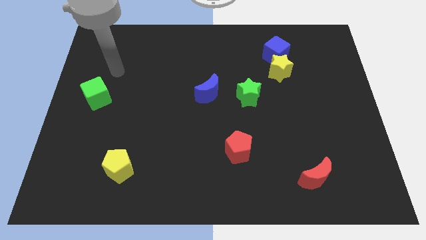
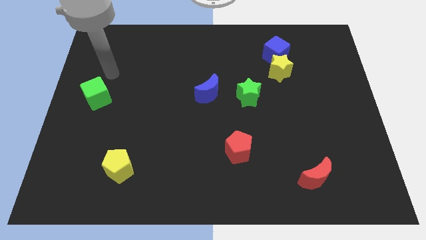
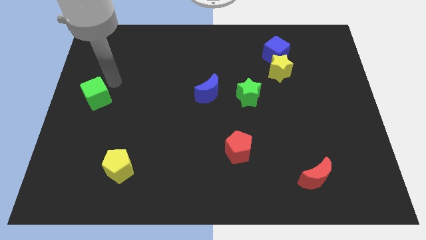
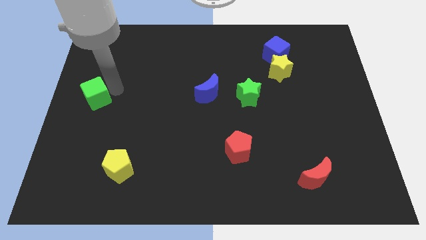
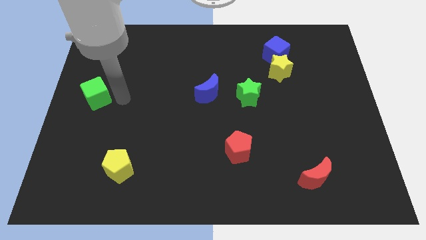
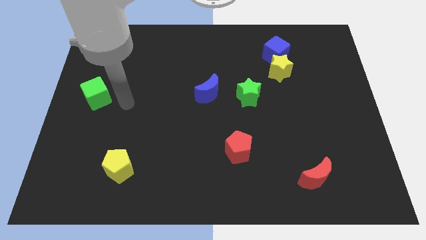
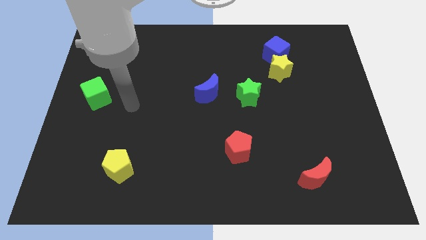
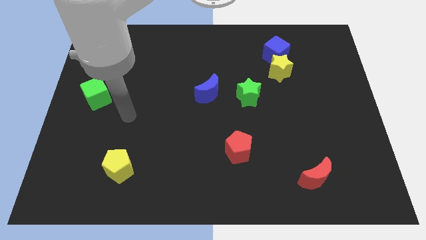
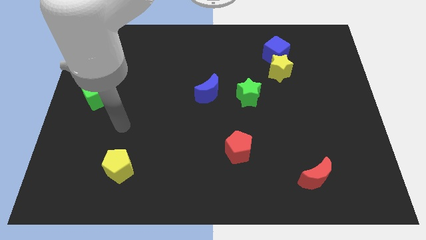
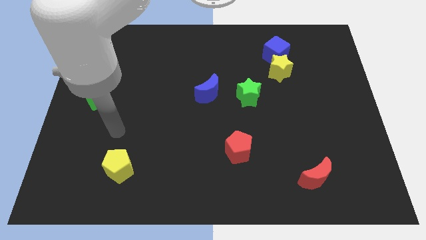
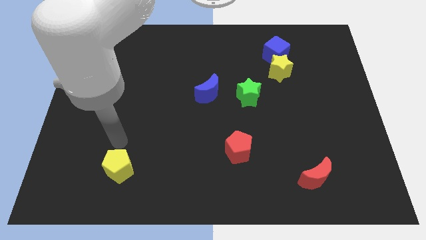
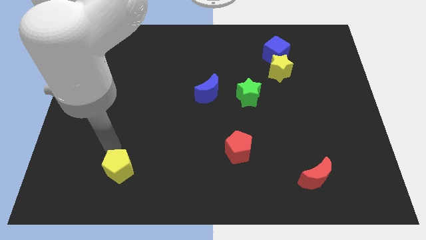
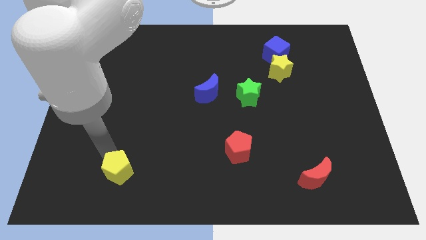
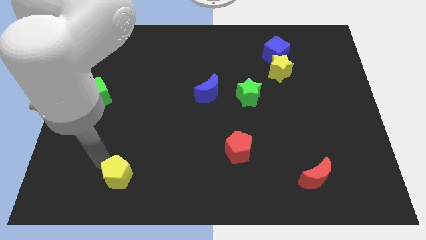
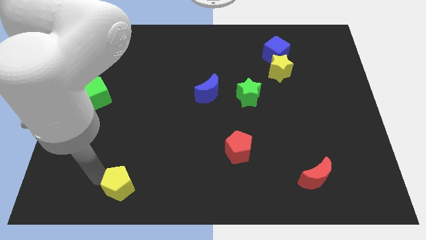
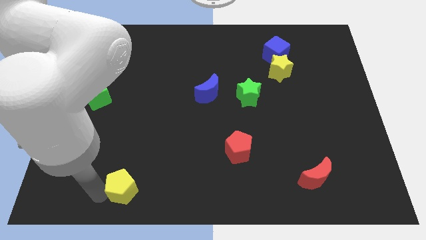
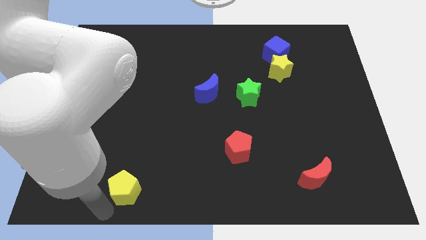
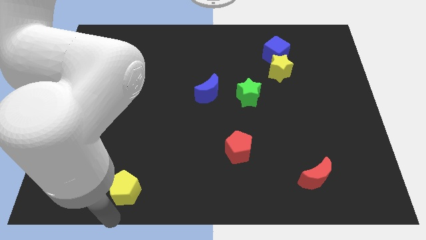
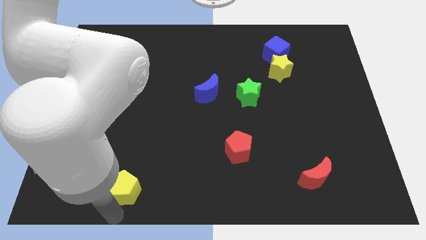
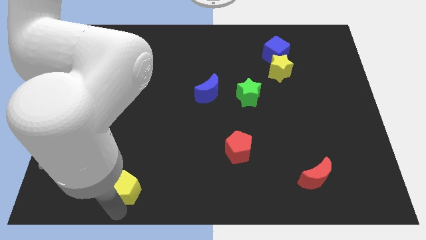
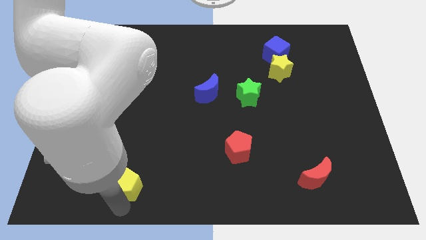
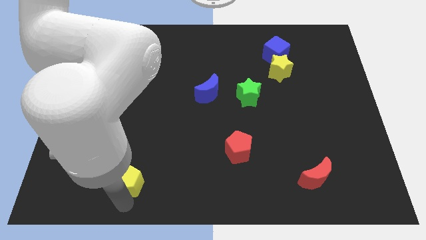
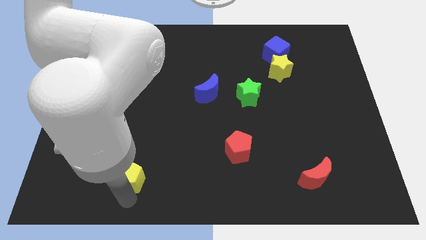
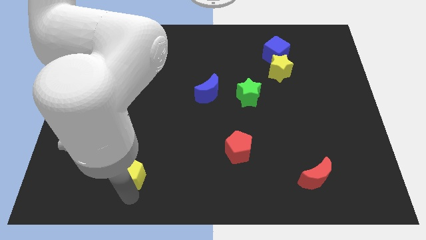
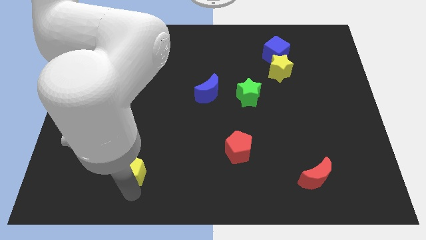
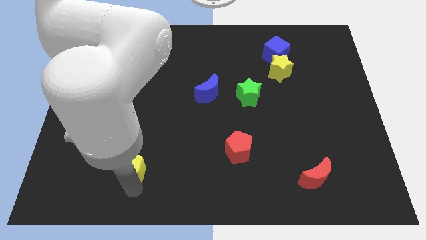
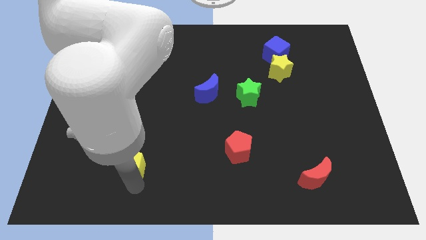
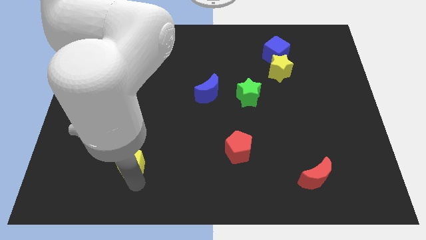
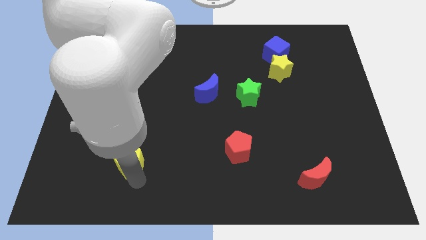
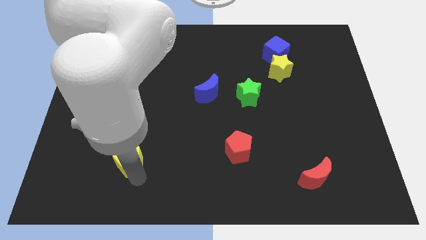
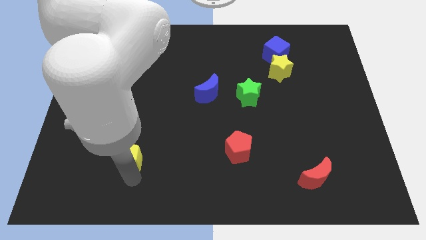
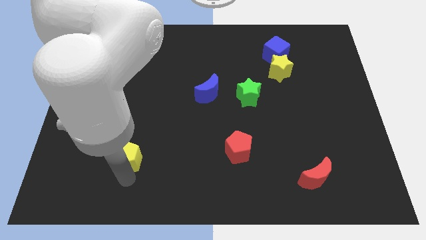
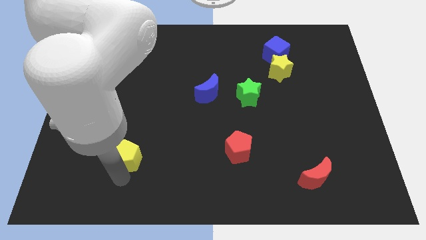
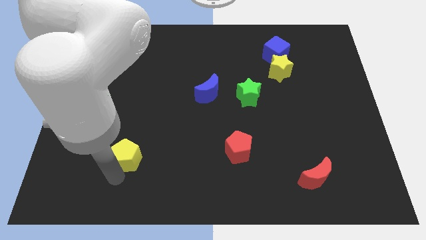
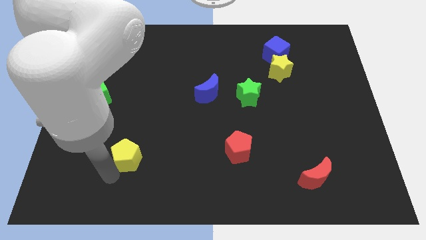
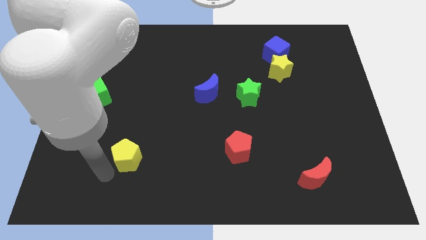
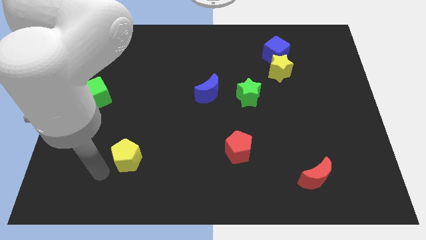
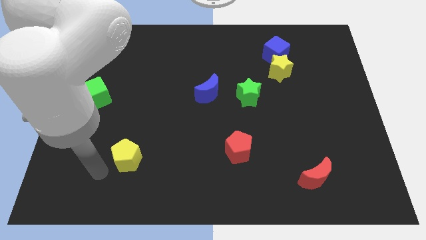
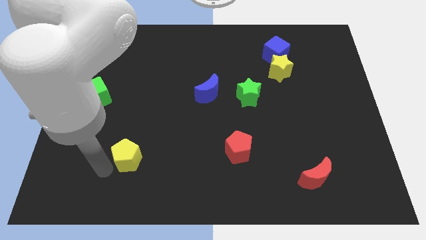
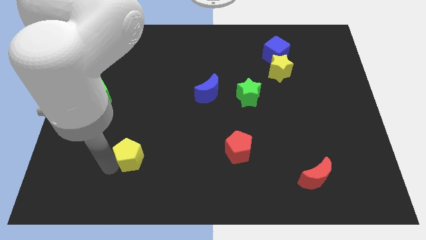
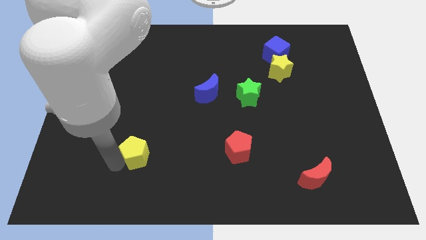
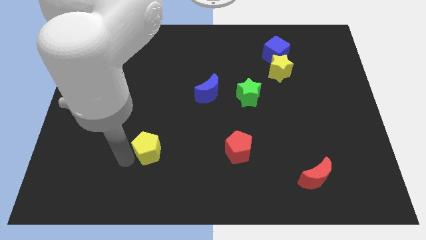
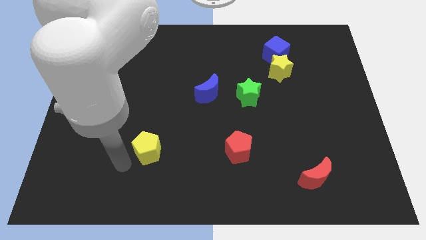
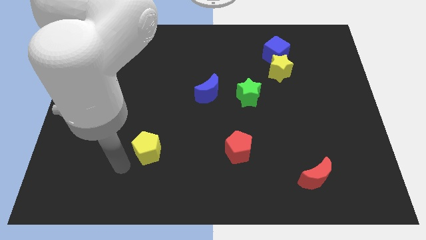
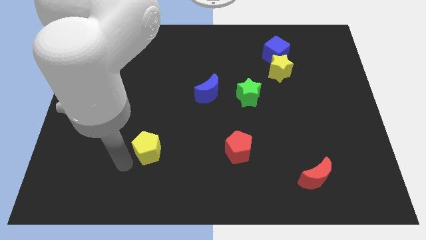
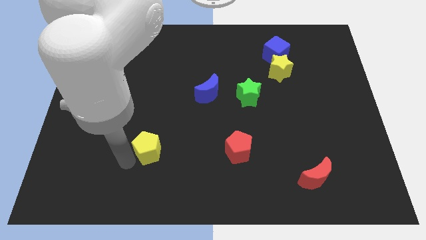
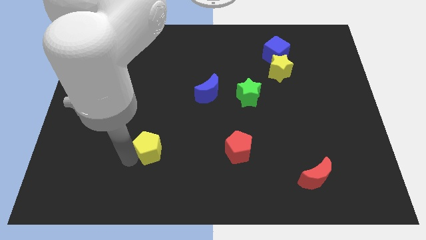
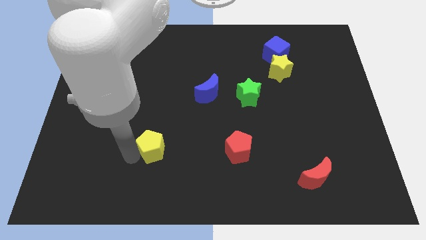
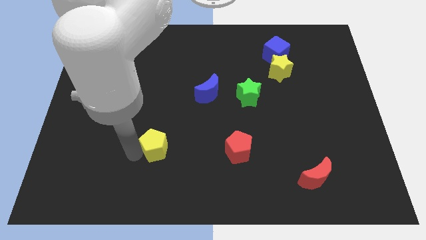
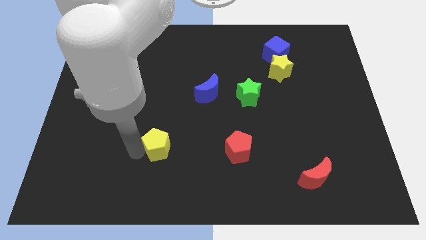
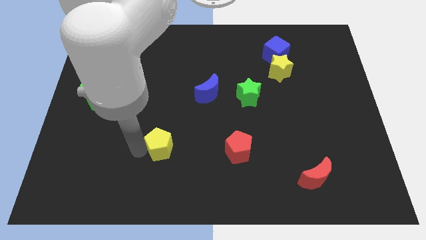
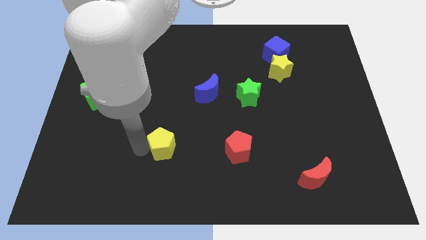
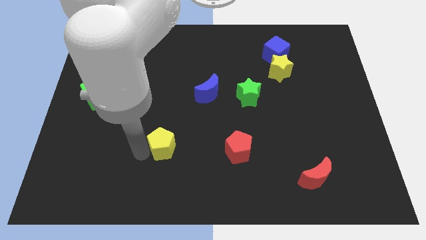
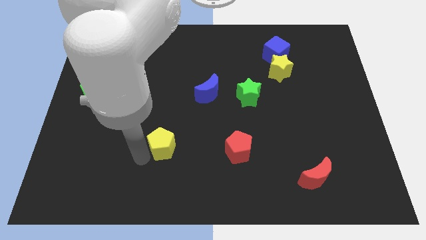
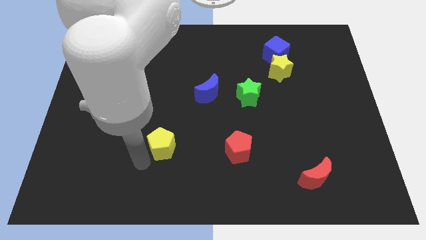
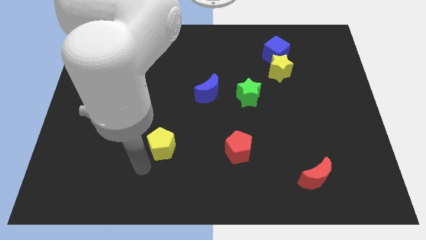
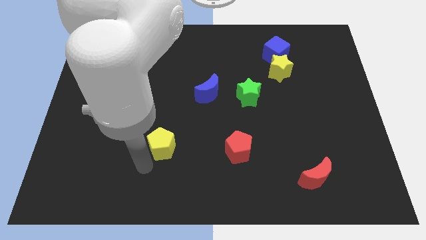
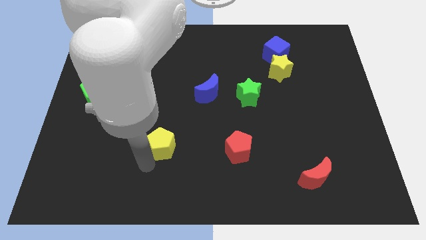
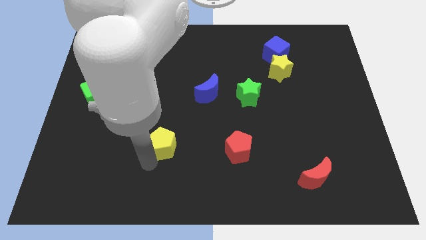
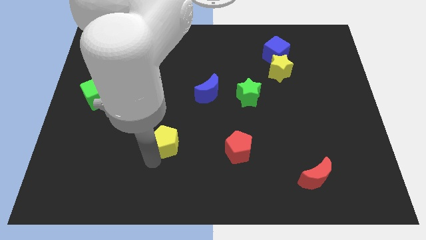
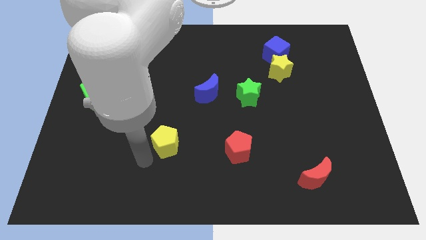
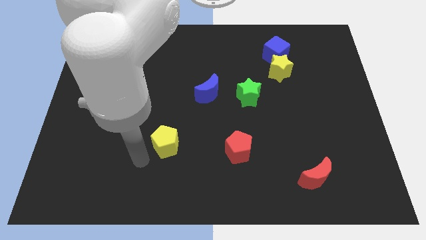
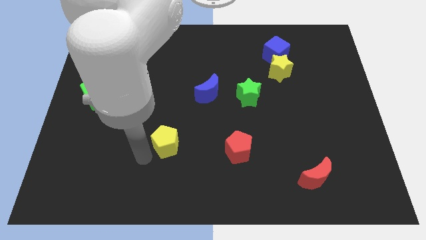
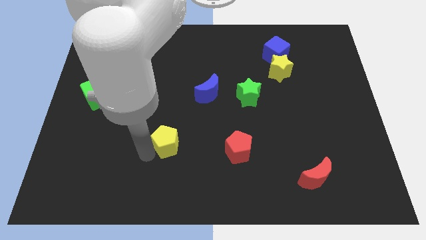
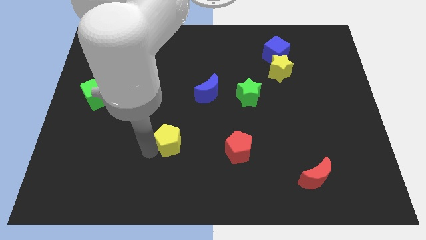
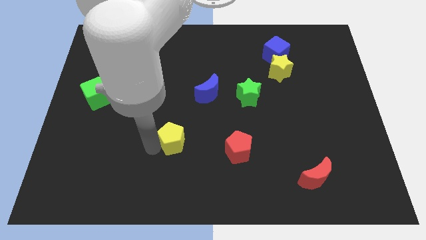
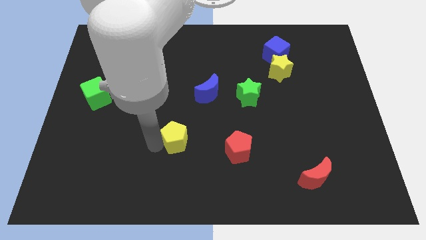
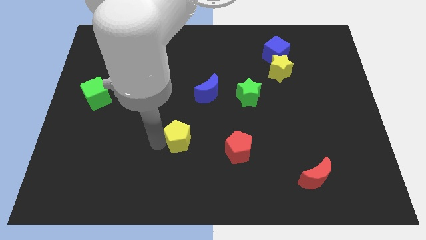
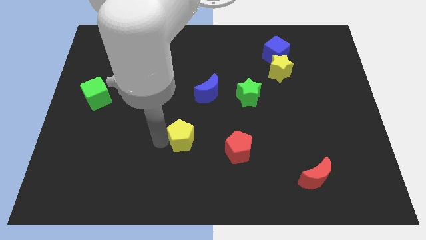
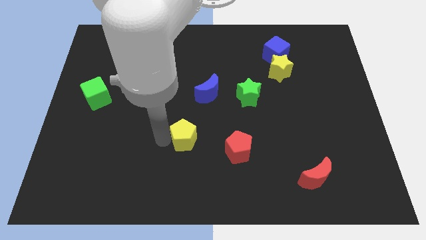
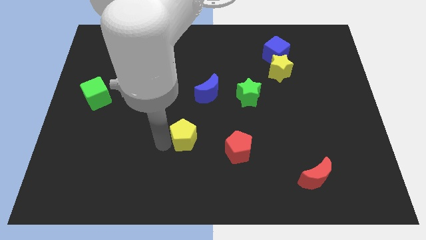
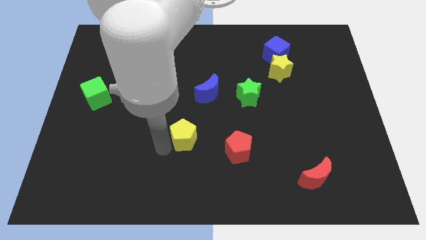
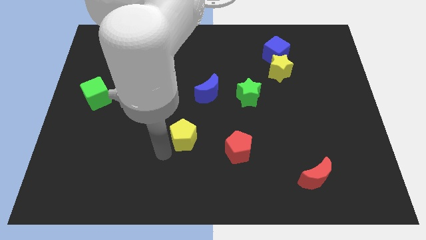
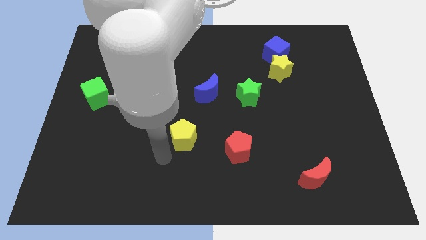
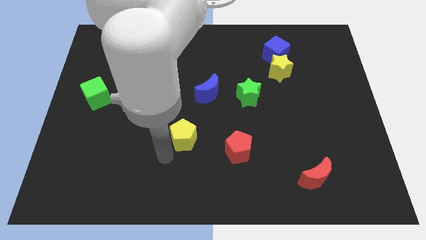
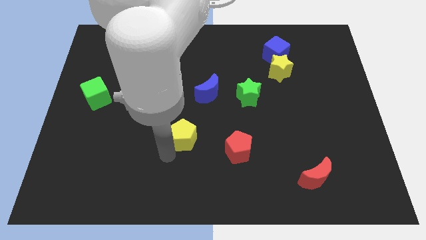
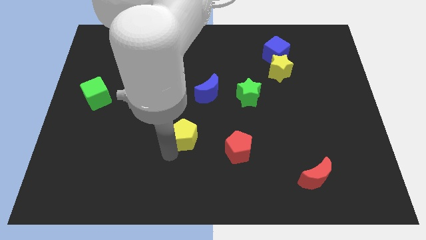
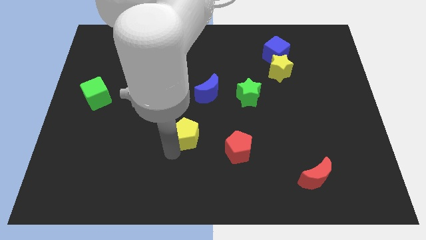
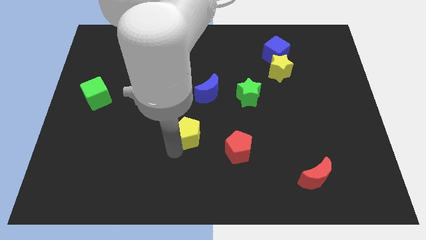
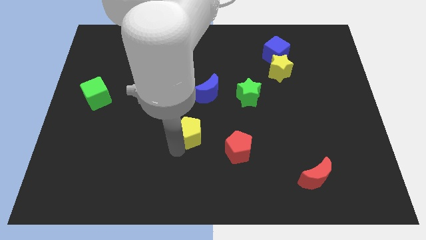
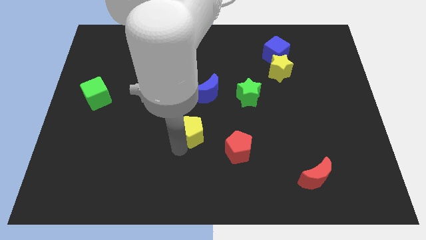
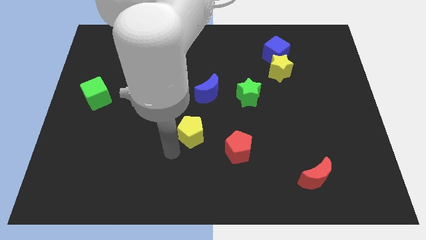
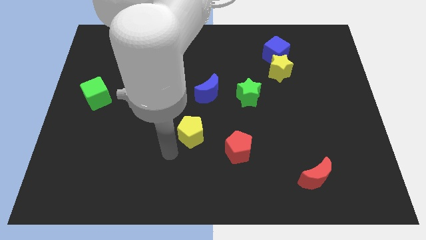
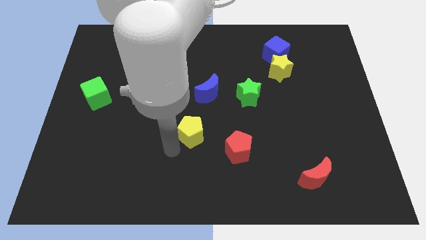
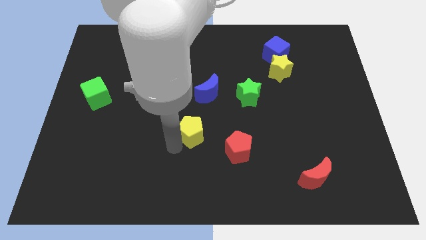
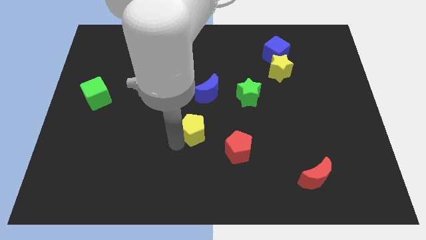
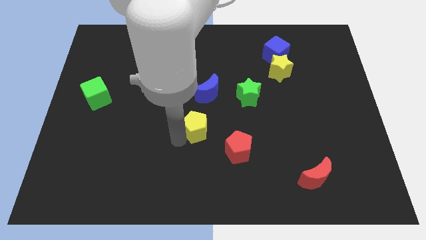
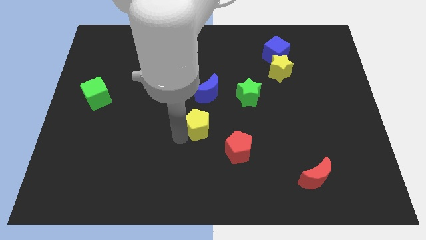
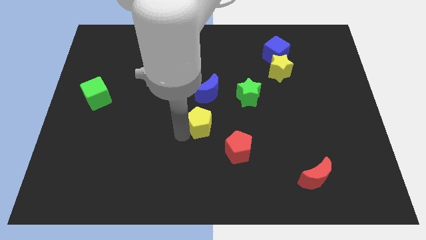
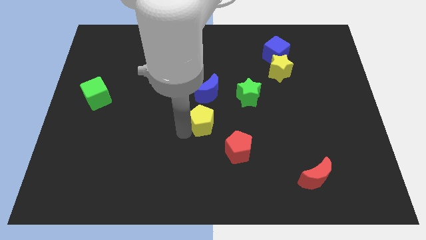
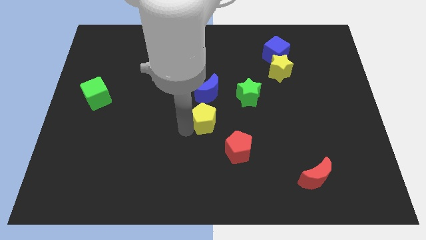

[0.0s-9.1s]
move the yellow pentagon diagonally up and right
